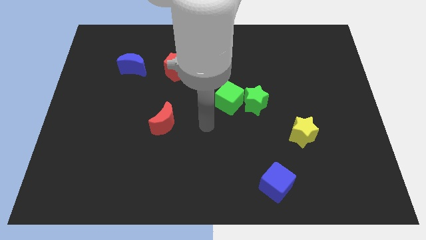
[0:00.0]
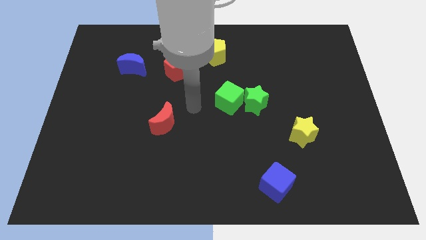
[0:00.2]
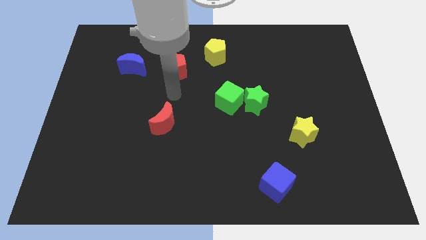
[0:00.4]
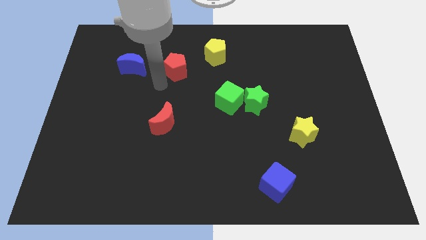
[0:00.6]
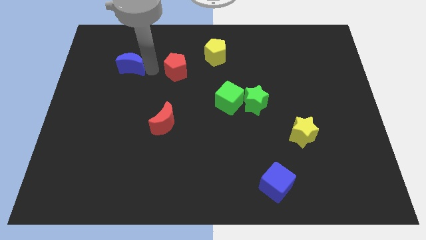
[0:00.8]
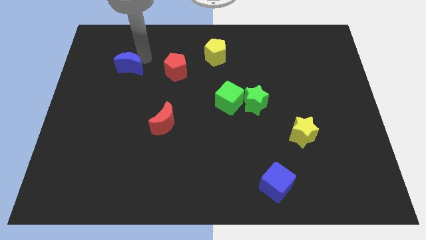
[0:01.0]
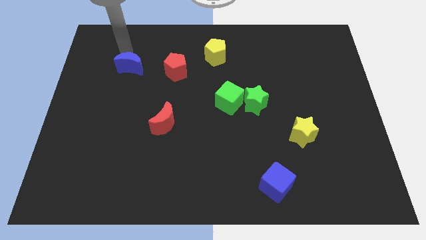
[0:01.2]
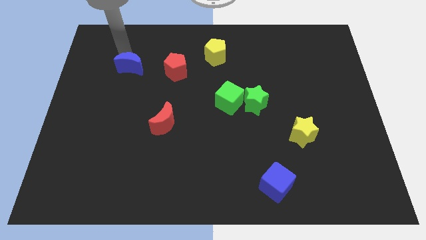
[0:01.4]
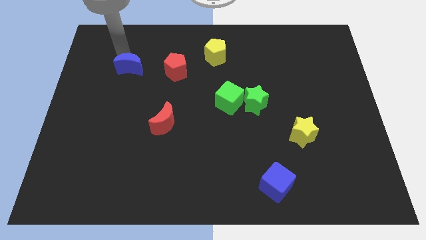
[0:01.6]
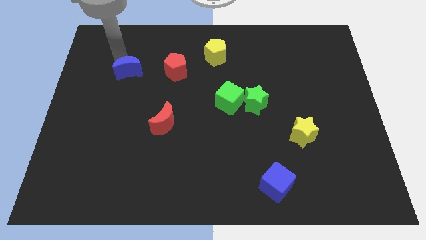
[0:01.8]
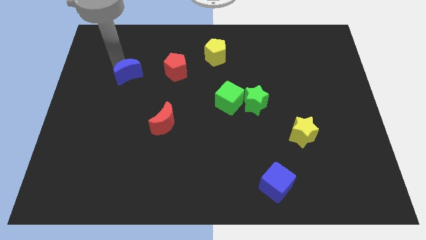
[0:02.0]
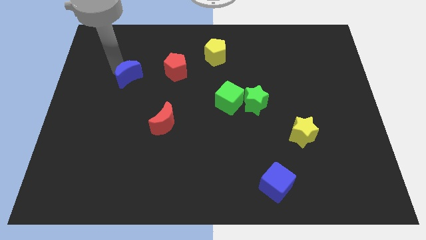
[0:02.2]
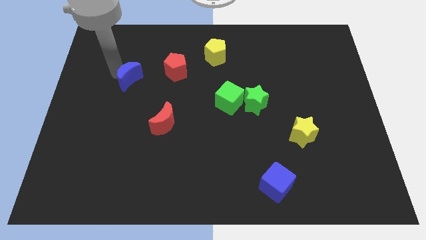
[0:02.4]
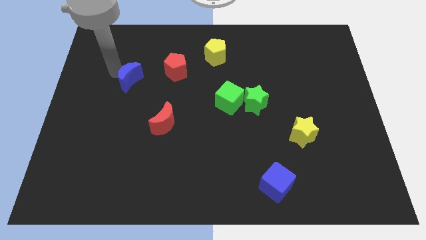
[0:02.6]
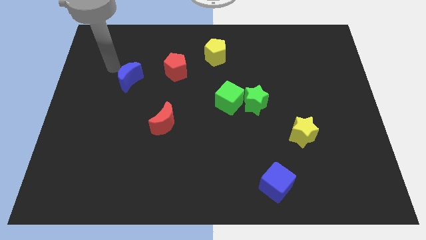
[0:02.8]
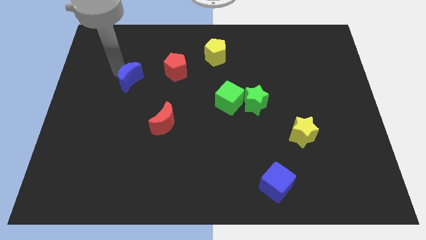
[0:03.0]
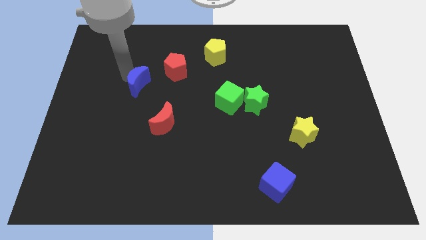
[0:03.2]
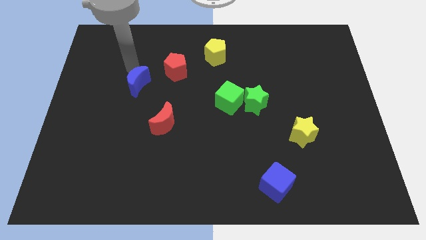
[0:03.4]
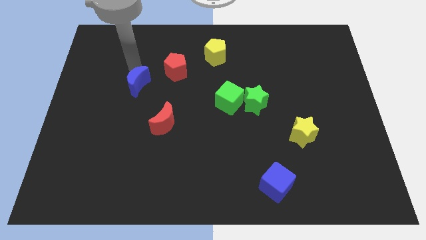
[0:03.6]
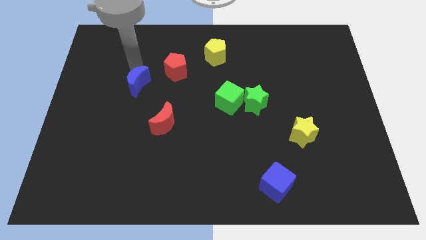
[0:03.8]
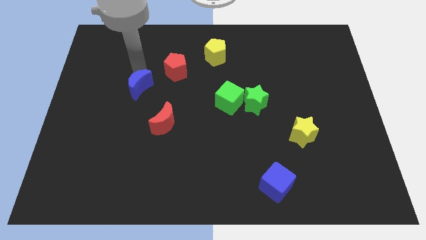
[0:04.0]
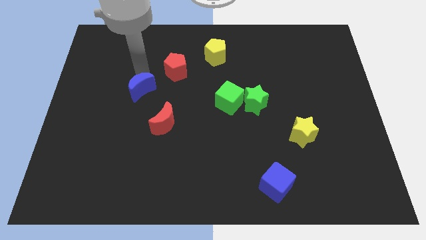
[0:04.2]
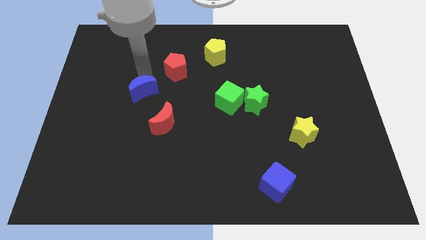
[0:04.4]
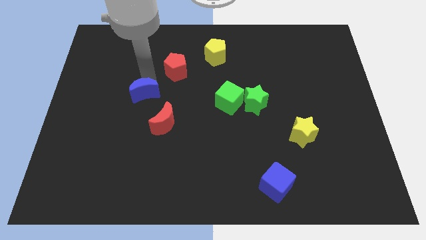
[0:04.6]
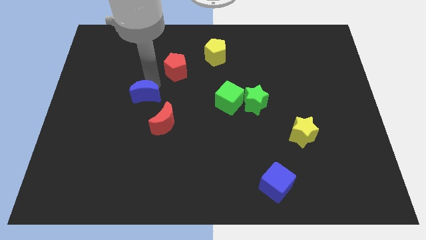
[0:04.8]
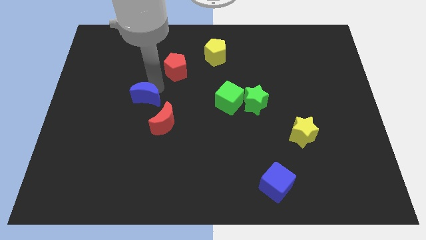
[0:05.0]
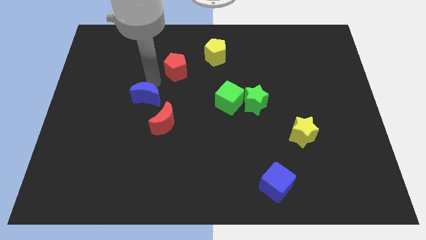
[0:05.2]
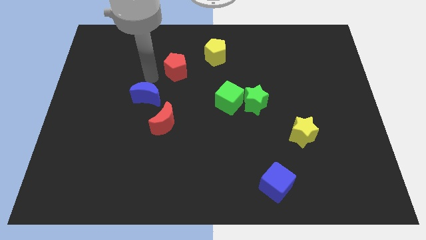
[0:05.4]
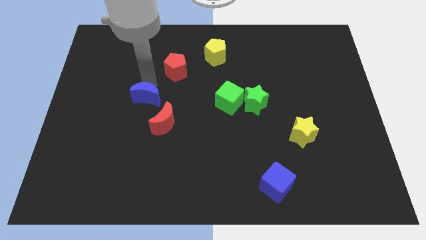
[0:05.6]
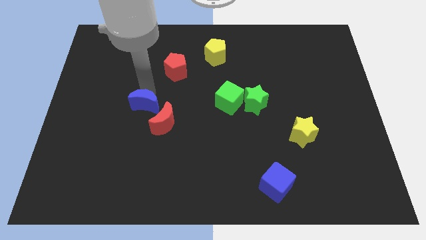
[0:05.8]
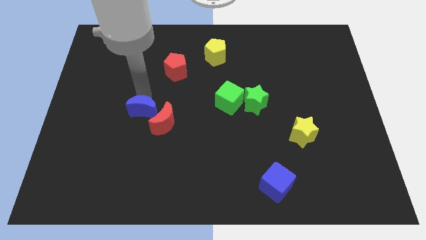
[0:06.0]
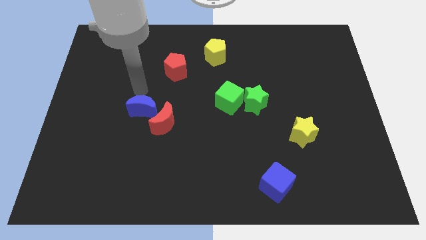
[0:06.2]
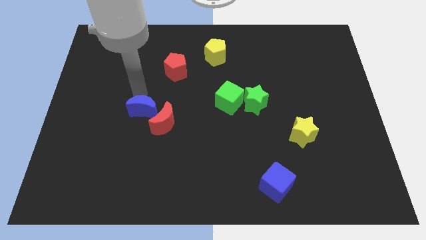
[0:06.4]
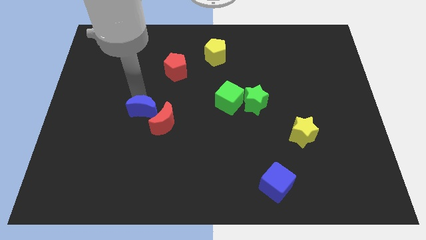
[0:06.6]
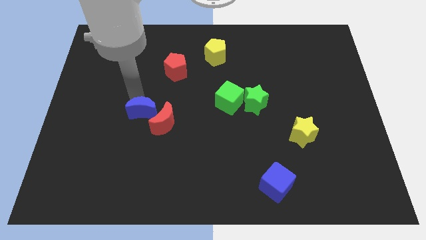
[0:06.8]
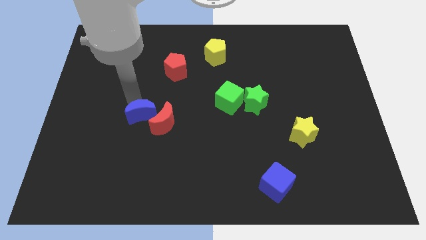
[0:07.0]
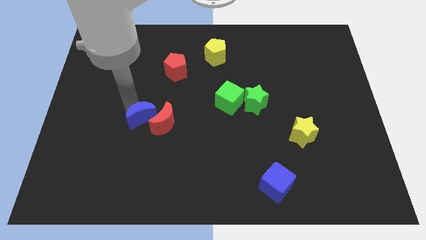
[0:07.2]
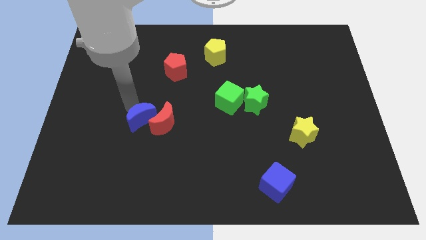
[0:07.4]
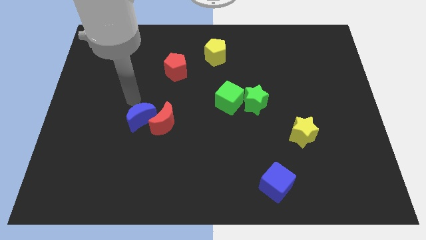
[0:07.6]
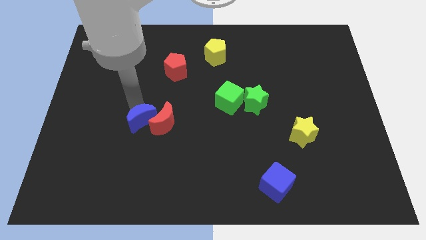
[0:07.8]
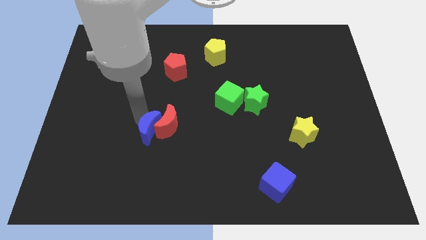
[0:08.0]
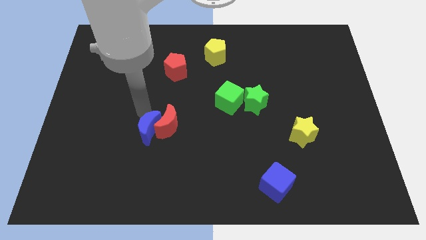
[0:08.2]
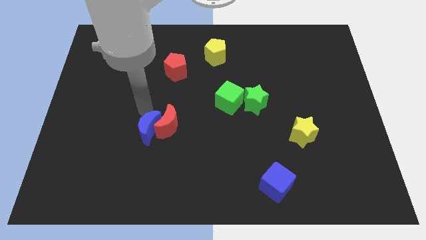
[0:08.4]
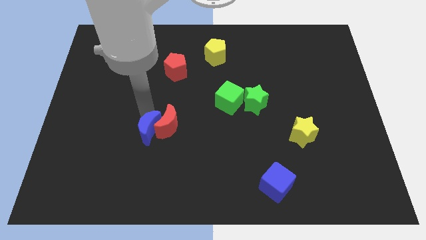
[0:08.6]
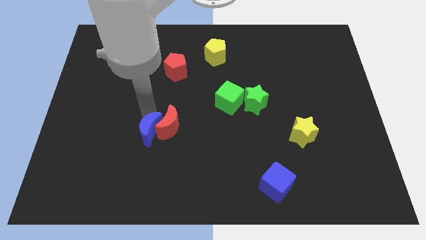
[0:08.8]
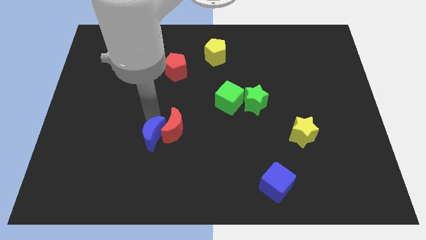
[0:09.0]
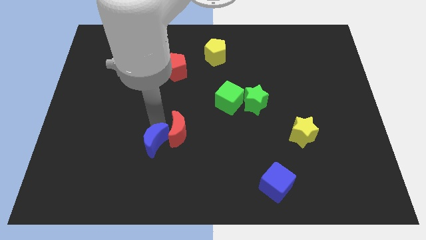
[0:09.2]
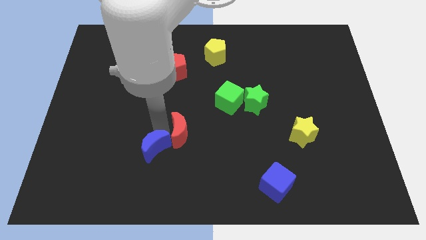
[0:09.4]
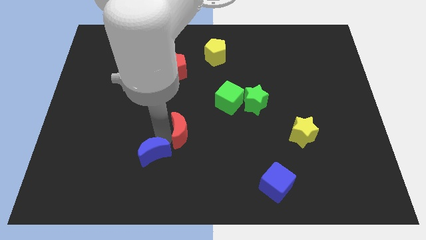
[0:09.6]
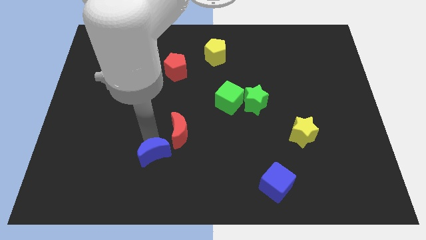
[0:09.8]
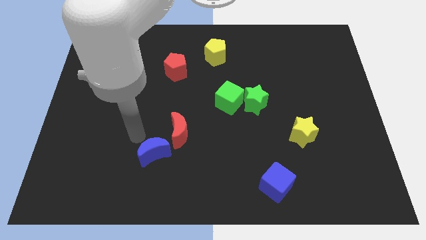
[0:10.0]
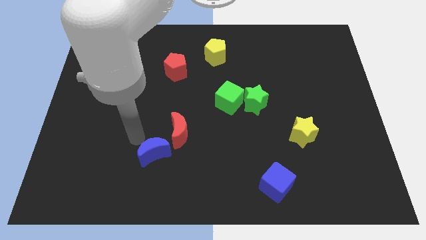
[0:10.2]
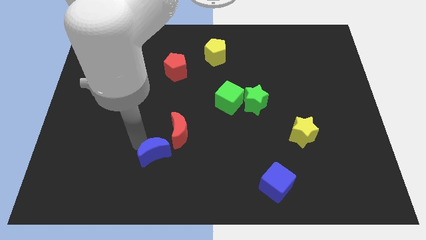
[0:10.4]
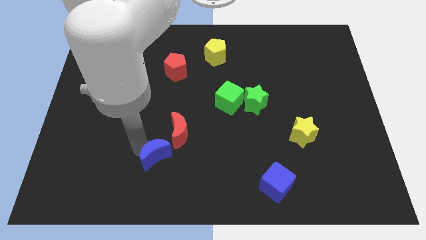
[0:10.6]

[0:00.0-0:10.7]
slide the blue moon to the bottom side of the red moon

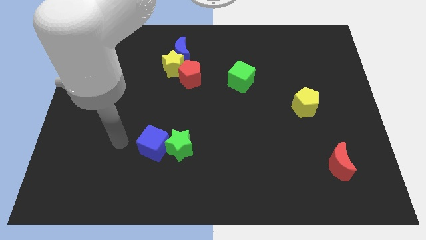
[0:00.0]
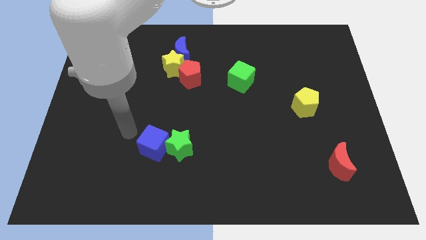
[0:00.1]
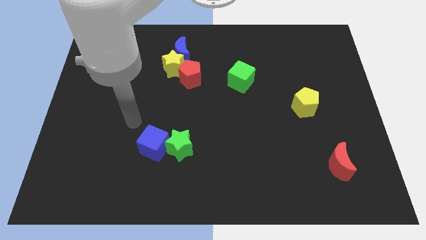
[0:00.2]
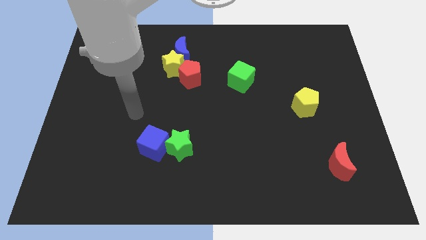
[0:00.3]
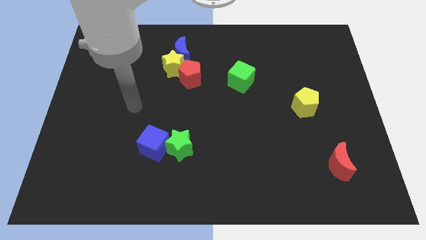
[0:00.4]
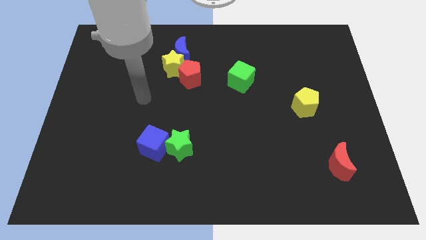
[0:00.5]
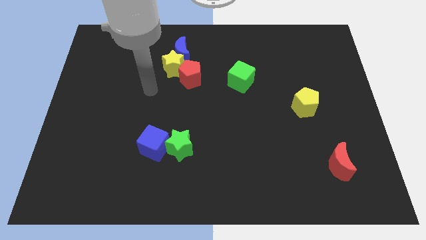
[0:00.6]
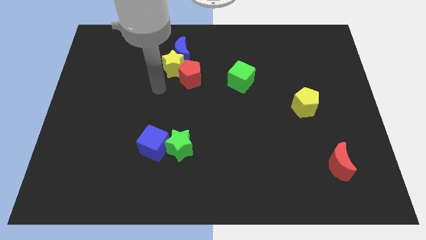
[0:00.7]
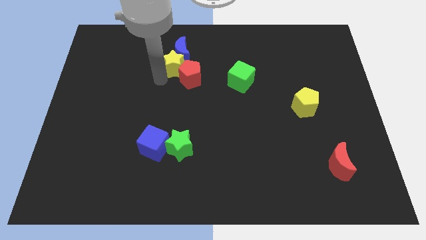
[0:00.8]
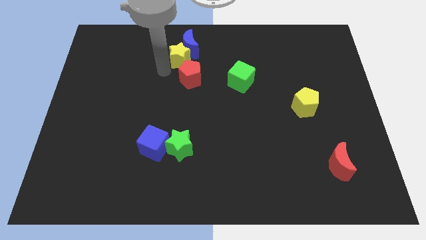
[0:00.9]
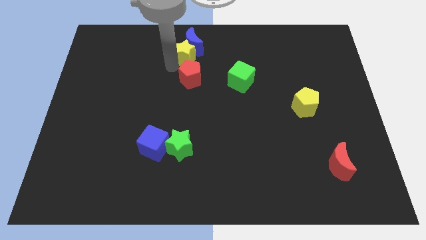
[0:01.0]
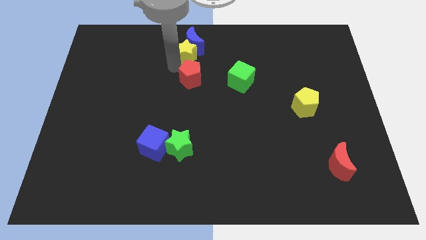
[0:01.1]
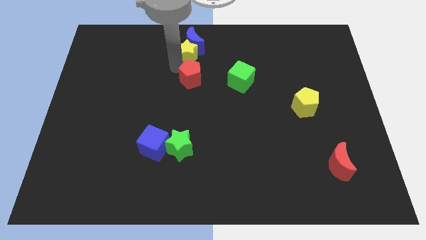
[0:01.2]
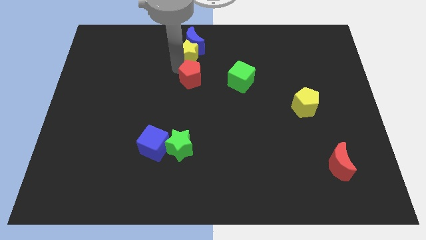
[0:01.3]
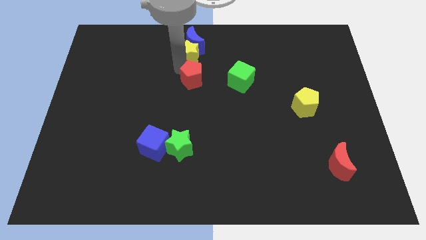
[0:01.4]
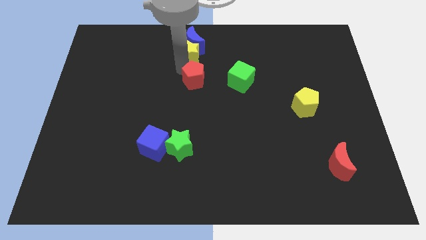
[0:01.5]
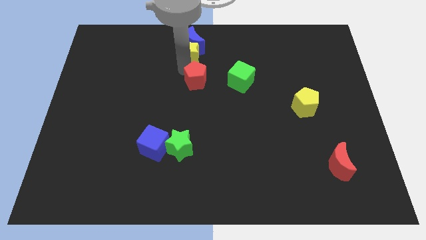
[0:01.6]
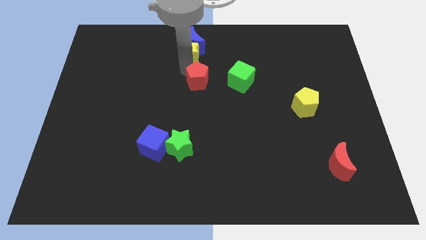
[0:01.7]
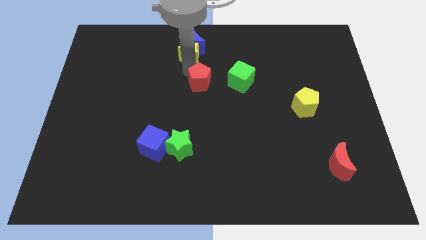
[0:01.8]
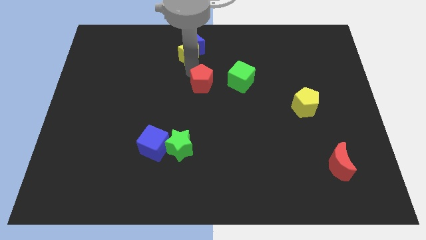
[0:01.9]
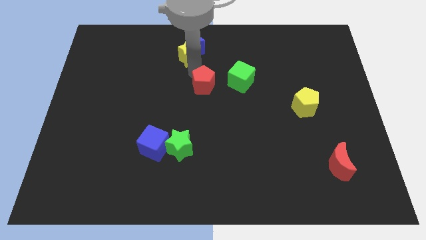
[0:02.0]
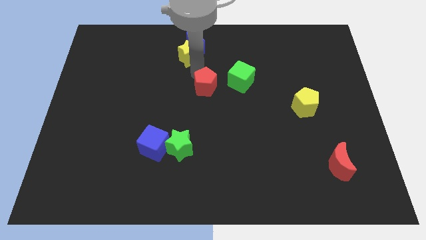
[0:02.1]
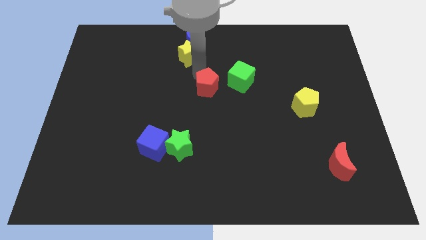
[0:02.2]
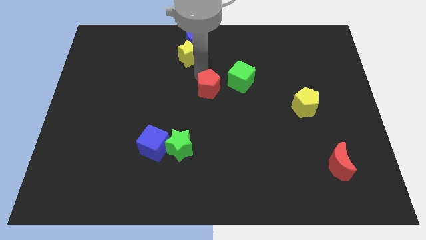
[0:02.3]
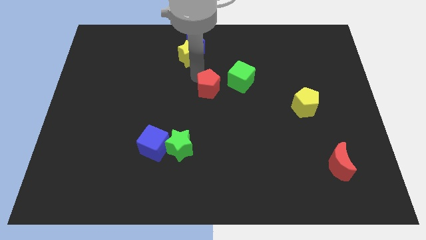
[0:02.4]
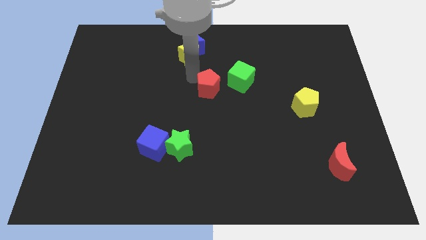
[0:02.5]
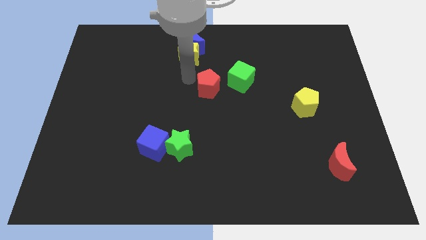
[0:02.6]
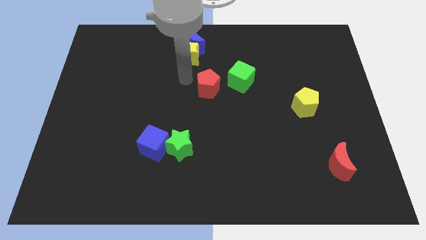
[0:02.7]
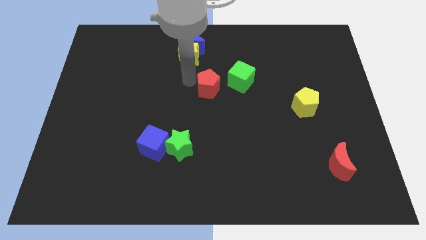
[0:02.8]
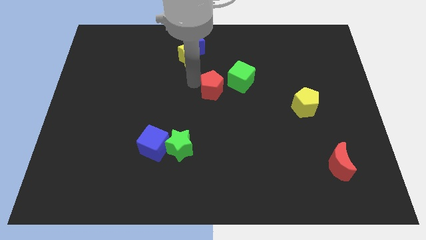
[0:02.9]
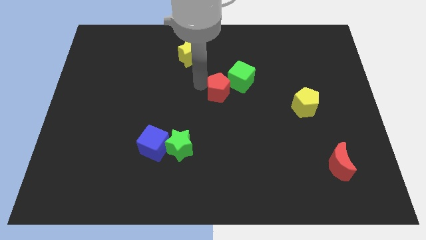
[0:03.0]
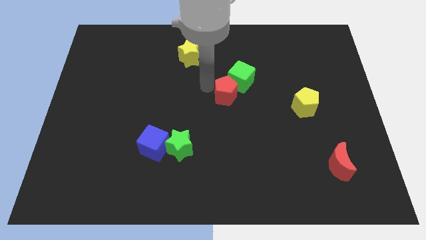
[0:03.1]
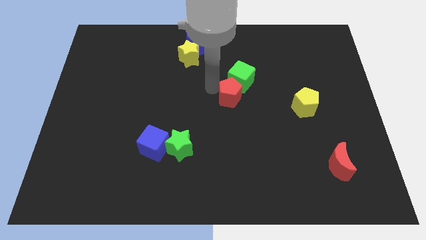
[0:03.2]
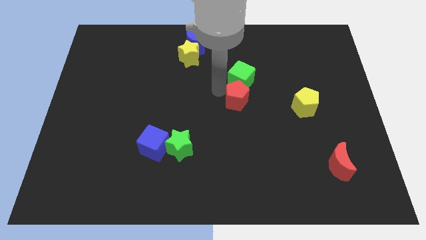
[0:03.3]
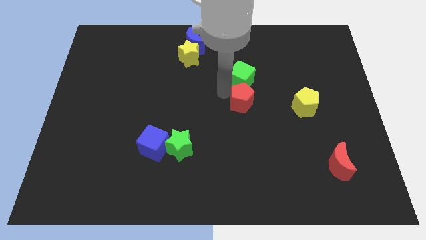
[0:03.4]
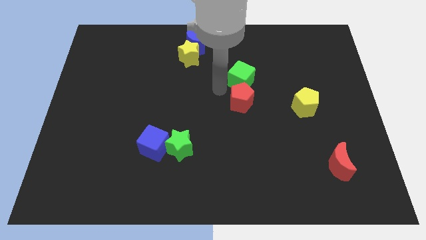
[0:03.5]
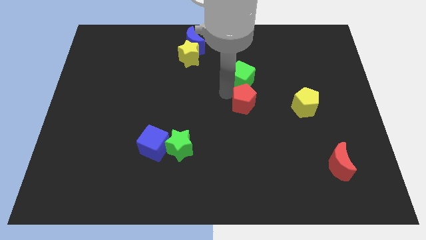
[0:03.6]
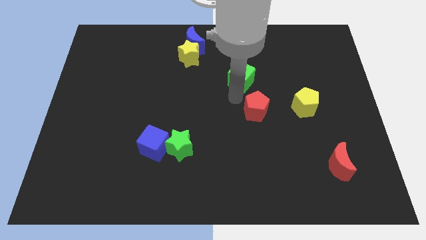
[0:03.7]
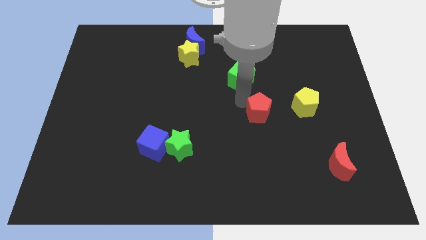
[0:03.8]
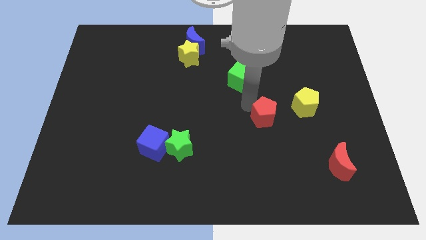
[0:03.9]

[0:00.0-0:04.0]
put the red pentagon to the bottom left of the yellow pentagon
